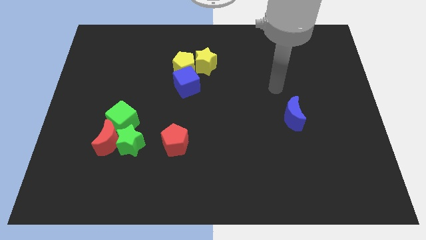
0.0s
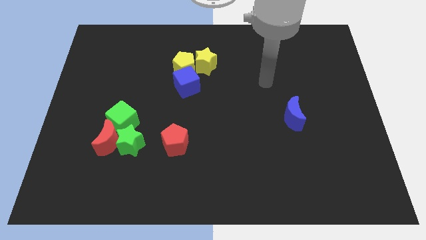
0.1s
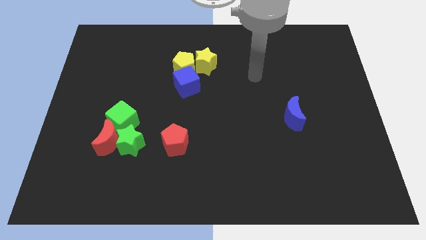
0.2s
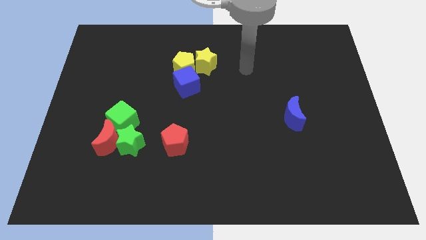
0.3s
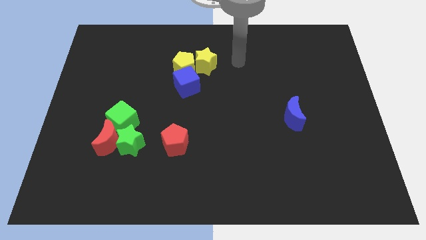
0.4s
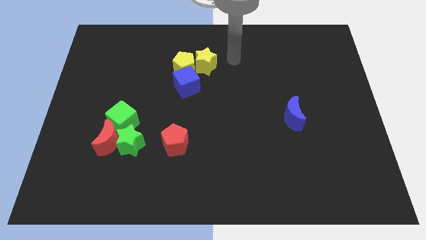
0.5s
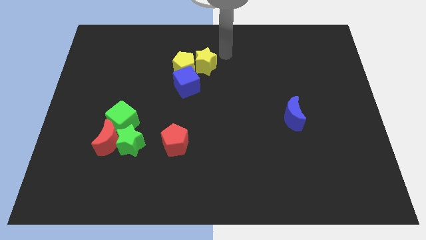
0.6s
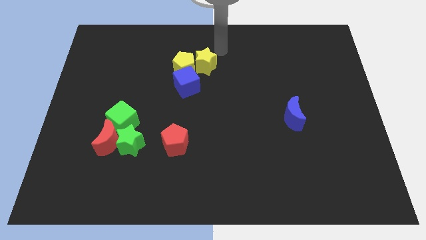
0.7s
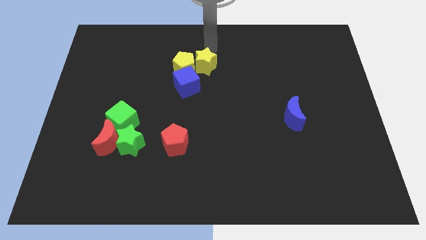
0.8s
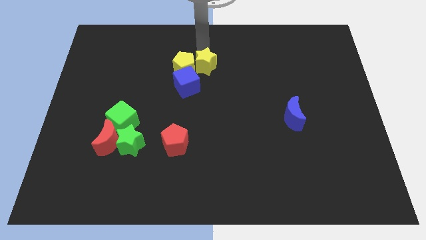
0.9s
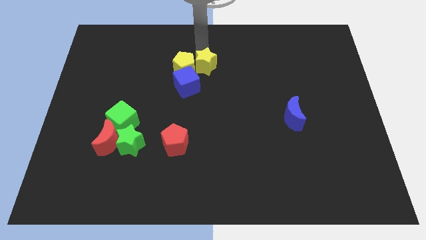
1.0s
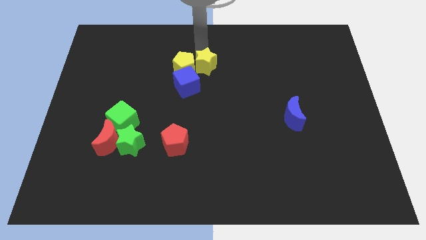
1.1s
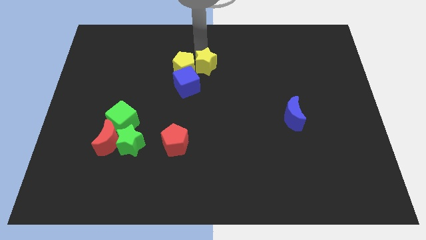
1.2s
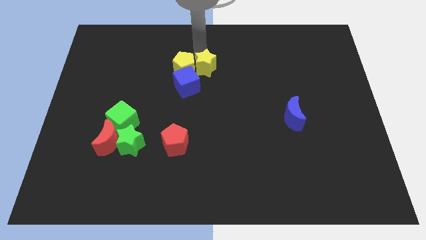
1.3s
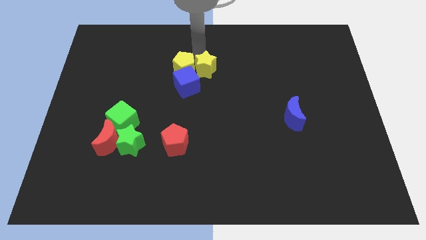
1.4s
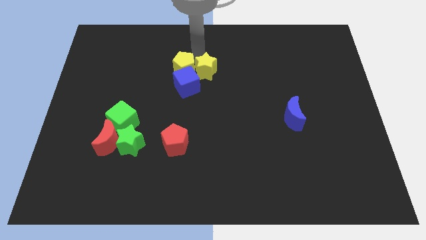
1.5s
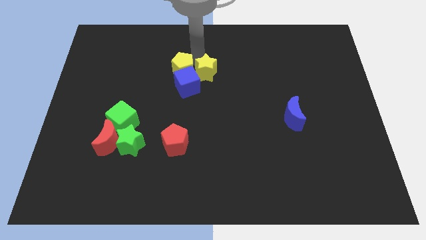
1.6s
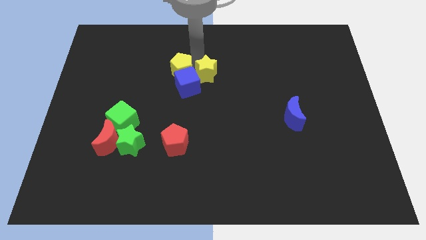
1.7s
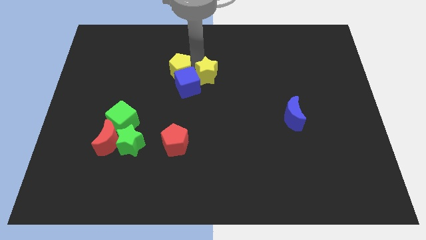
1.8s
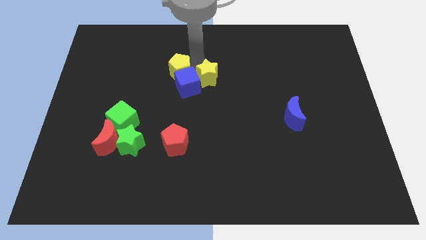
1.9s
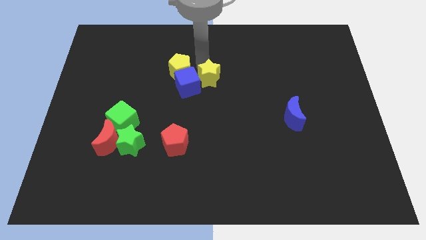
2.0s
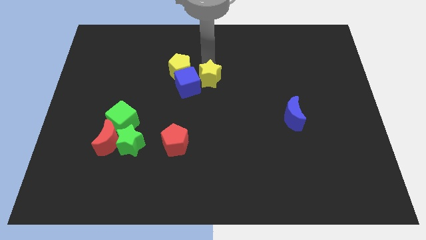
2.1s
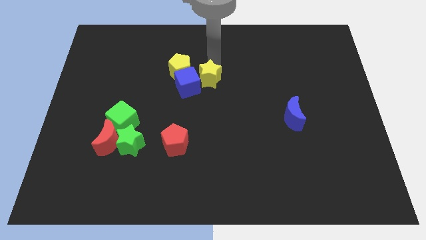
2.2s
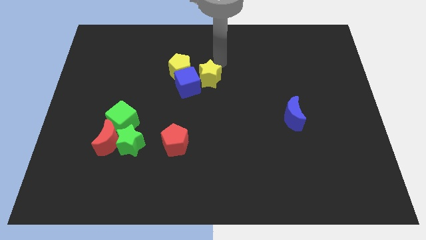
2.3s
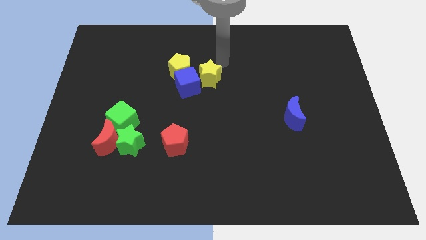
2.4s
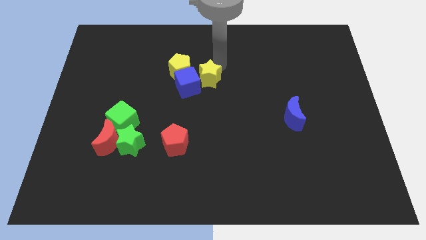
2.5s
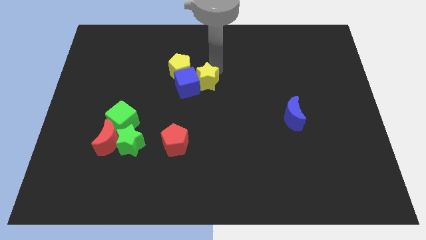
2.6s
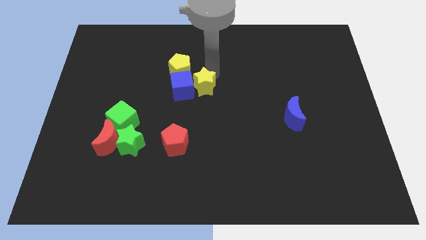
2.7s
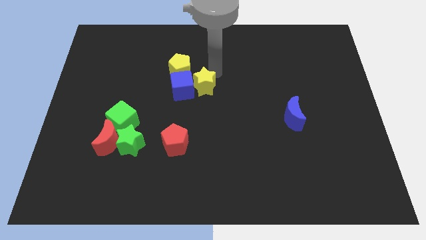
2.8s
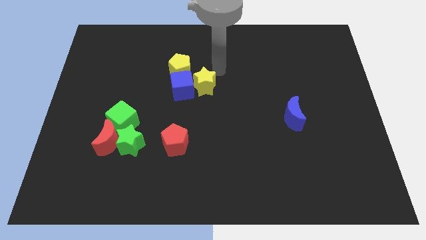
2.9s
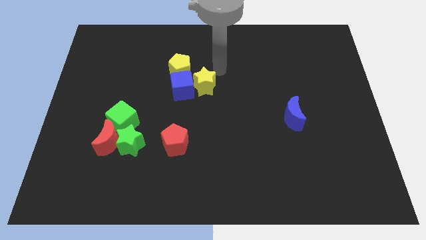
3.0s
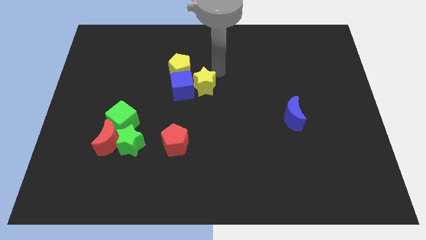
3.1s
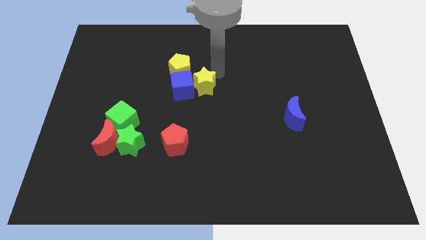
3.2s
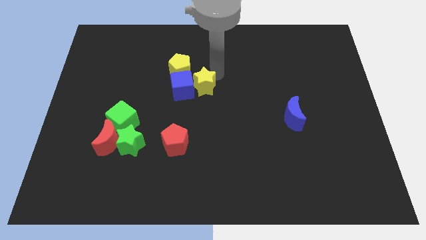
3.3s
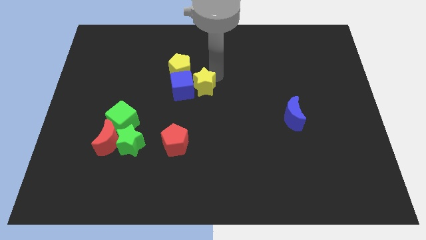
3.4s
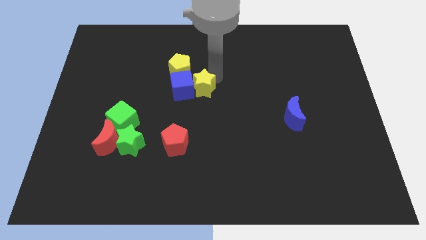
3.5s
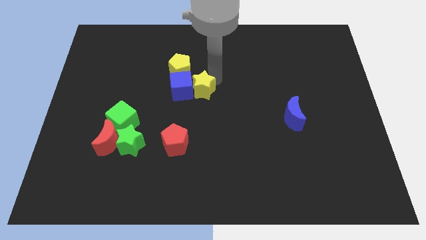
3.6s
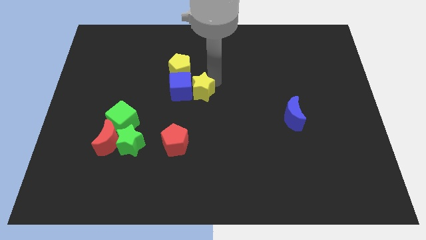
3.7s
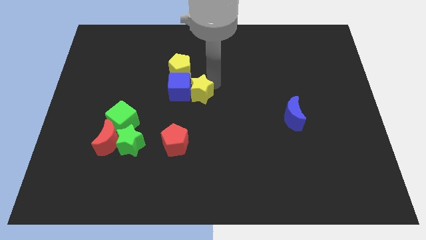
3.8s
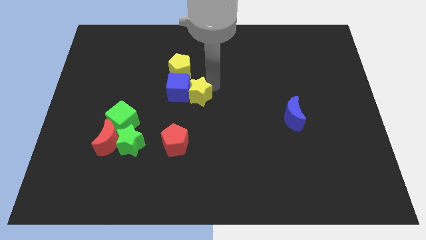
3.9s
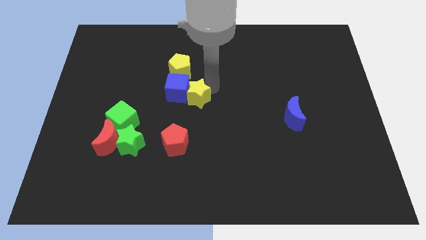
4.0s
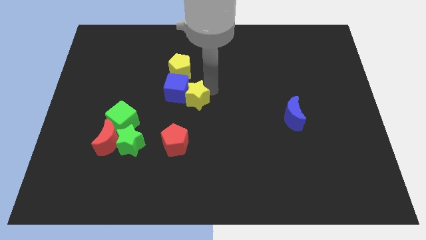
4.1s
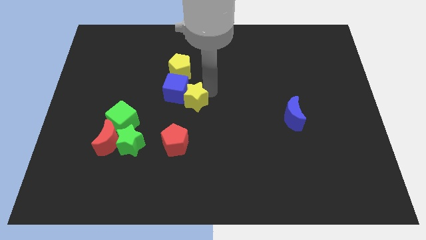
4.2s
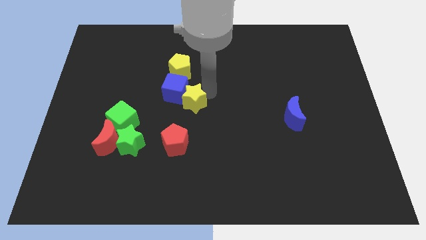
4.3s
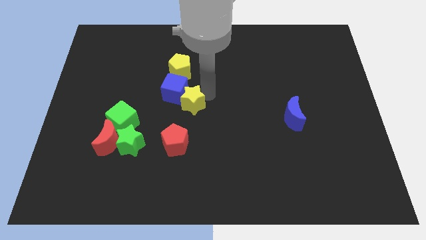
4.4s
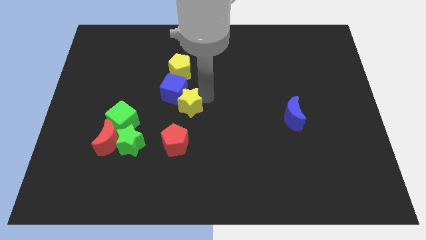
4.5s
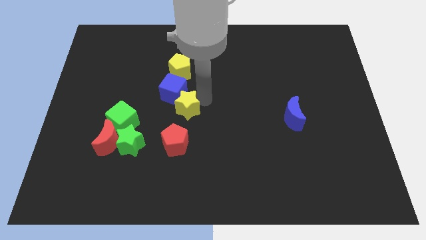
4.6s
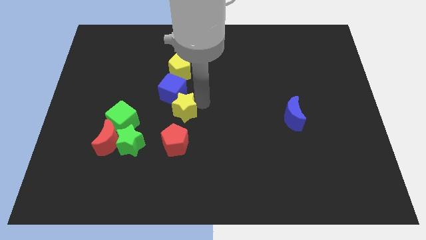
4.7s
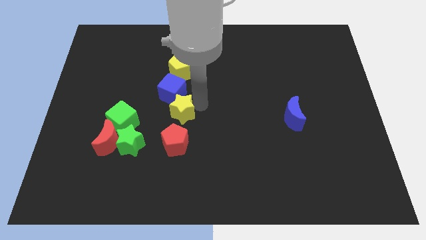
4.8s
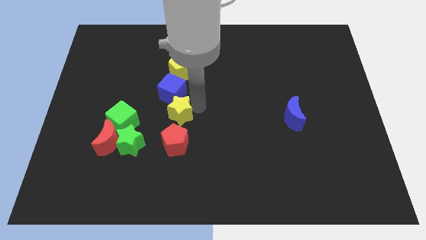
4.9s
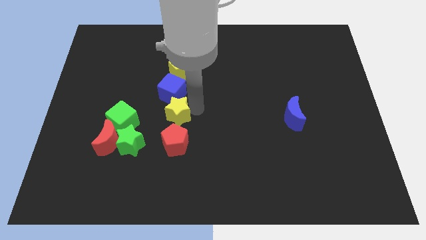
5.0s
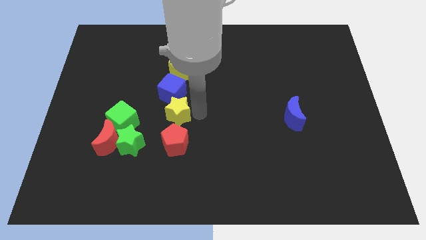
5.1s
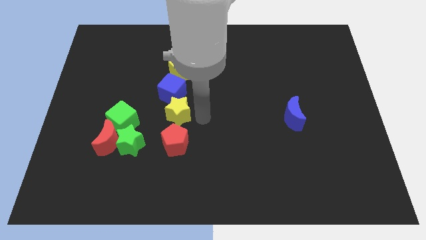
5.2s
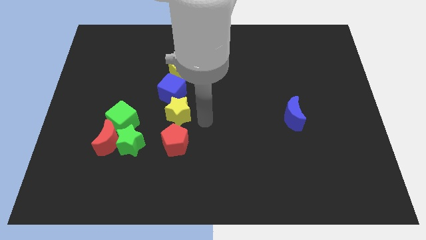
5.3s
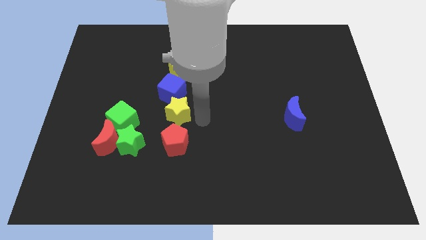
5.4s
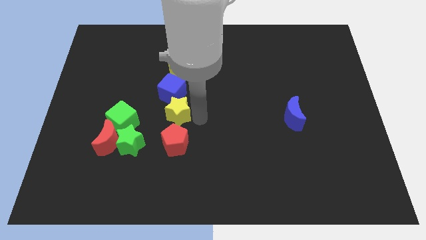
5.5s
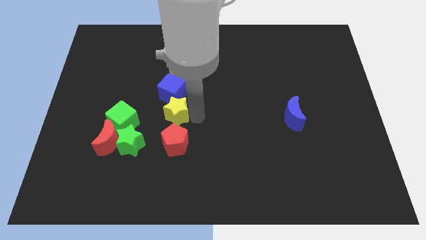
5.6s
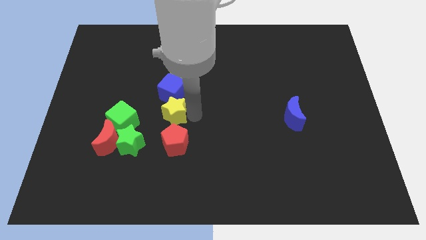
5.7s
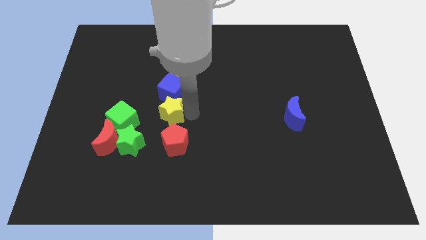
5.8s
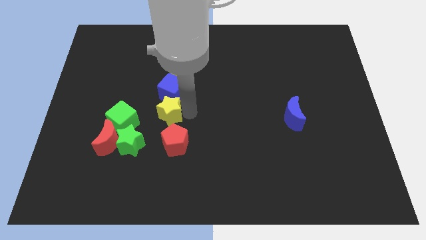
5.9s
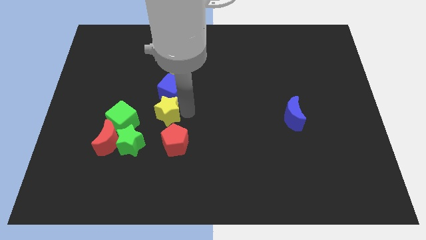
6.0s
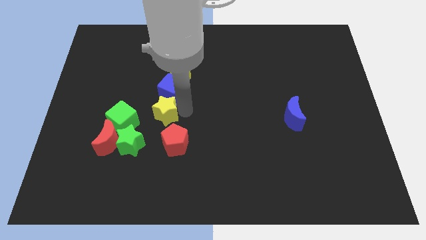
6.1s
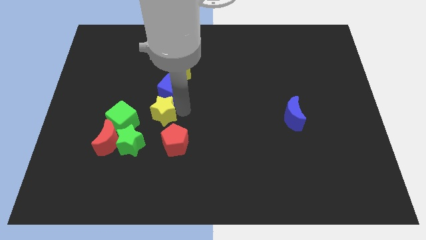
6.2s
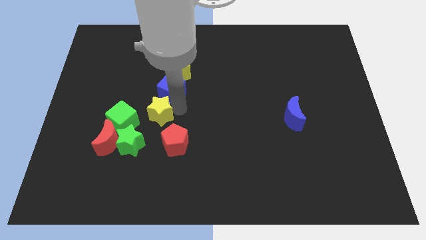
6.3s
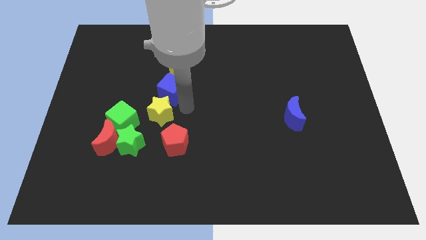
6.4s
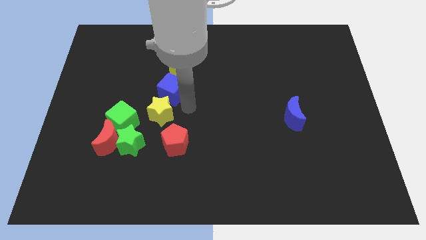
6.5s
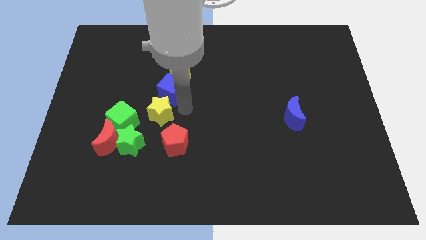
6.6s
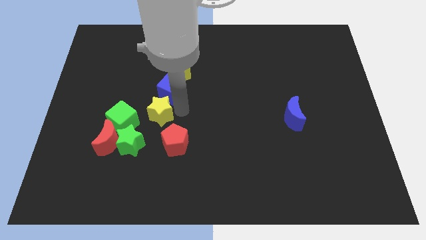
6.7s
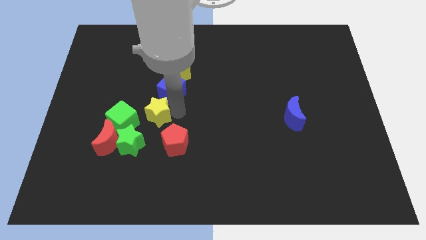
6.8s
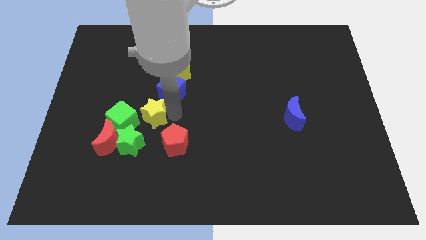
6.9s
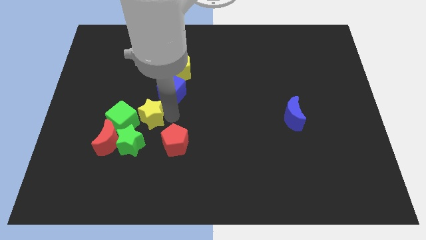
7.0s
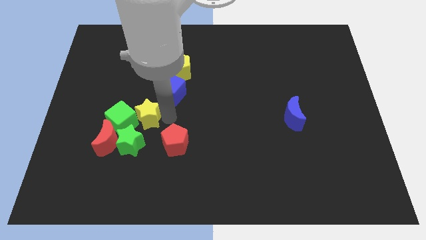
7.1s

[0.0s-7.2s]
slide the yellow star towards the green cube
